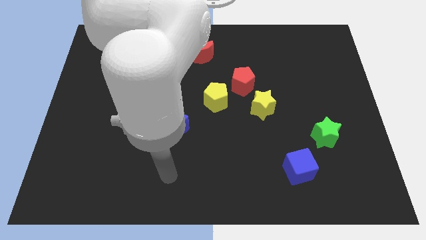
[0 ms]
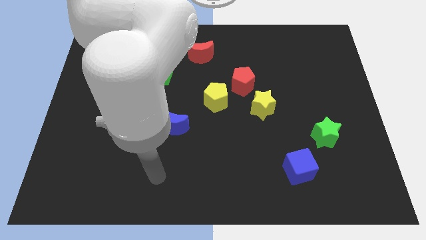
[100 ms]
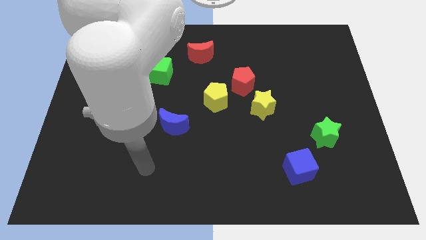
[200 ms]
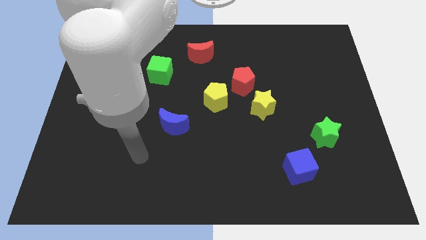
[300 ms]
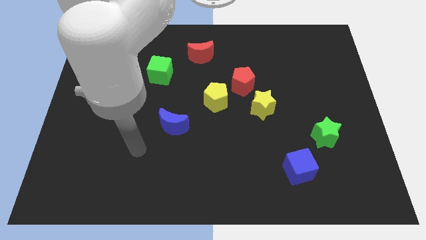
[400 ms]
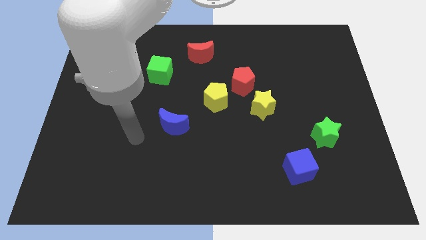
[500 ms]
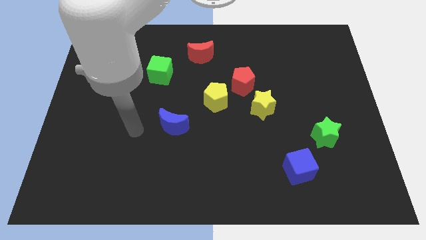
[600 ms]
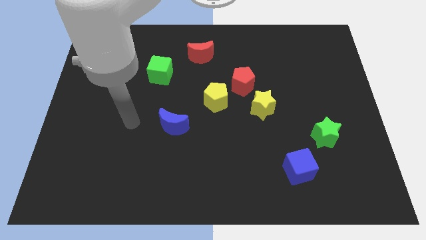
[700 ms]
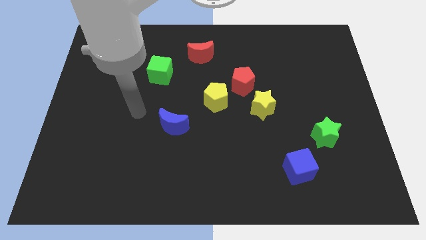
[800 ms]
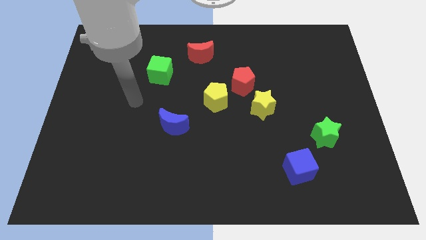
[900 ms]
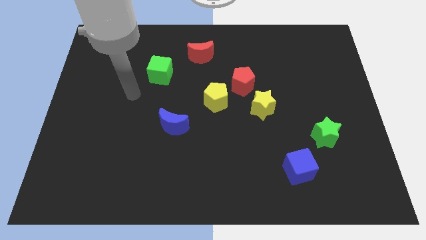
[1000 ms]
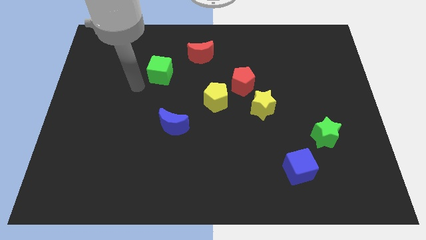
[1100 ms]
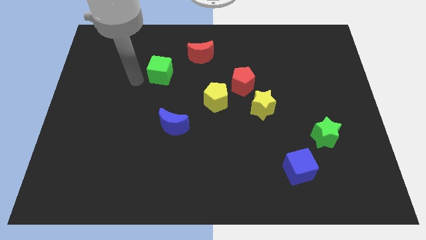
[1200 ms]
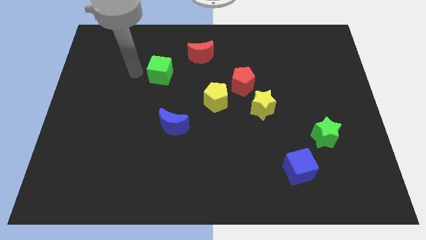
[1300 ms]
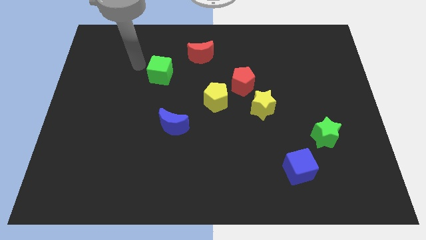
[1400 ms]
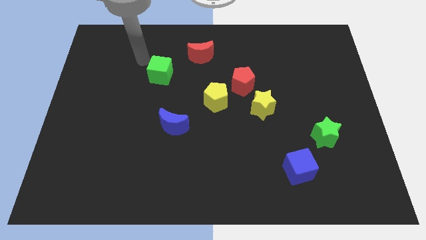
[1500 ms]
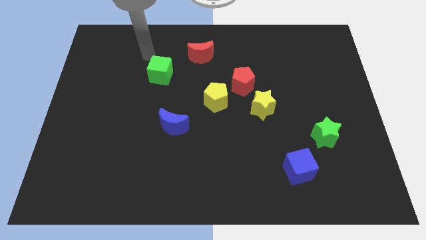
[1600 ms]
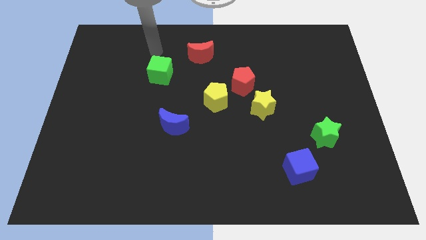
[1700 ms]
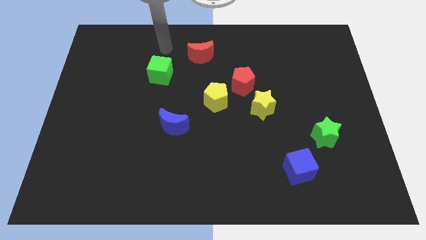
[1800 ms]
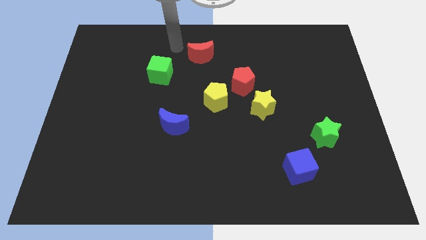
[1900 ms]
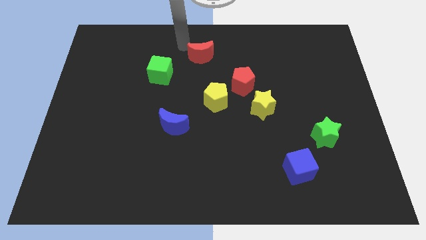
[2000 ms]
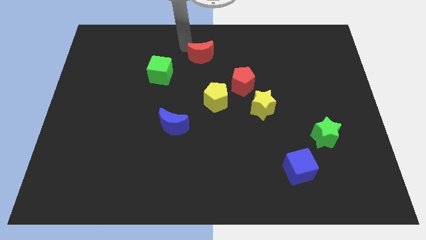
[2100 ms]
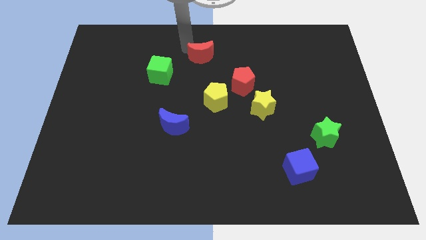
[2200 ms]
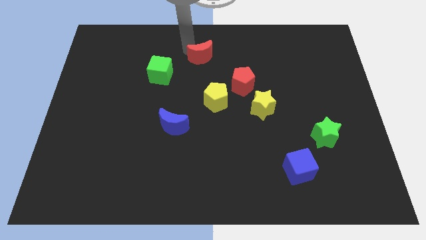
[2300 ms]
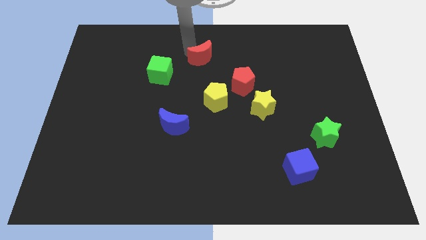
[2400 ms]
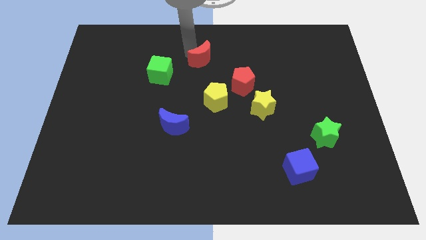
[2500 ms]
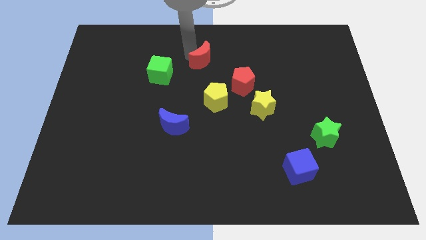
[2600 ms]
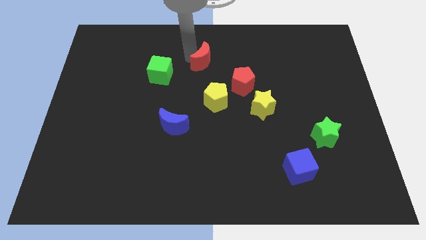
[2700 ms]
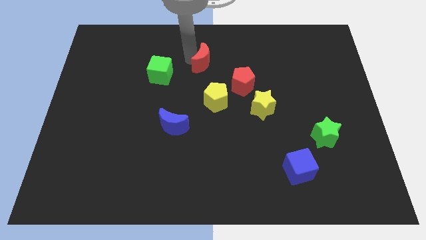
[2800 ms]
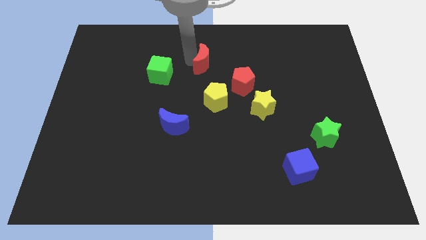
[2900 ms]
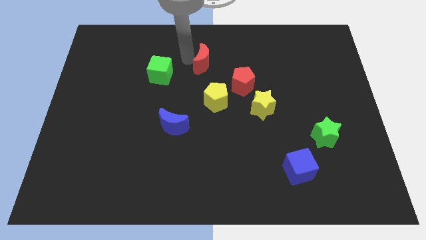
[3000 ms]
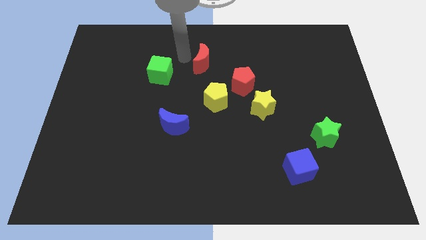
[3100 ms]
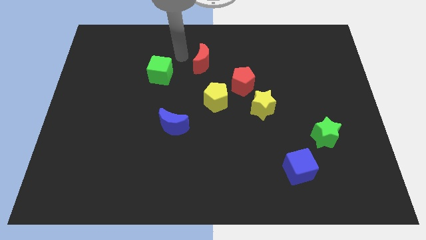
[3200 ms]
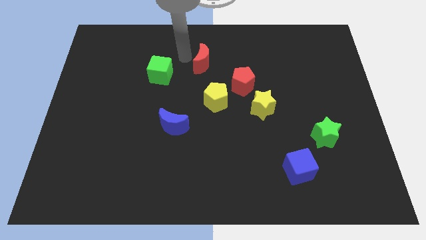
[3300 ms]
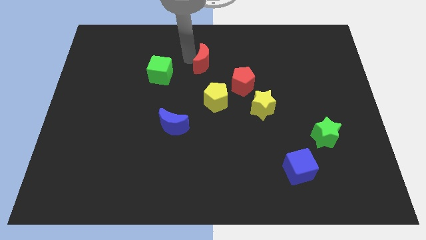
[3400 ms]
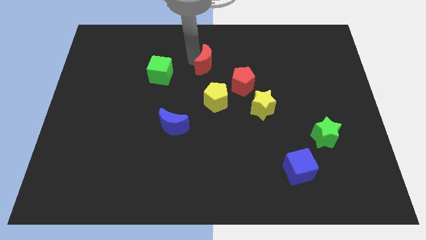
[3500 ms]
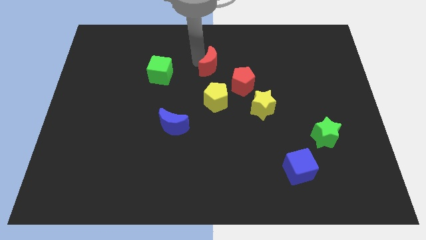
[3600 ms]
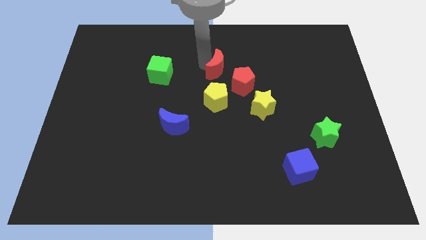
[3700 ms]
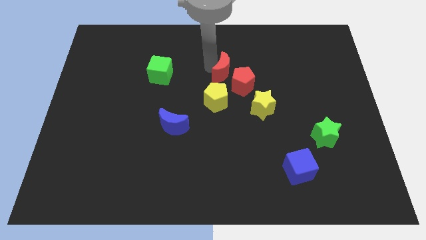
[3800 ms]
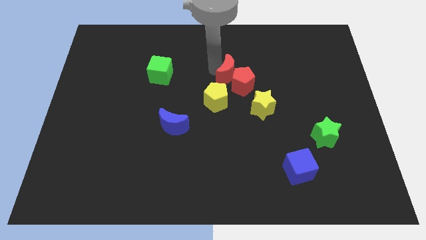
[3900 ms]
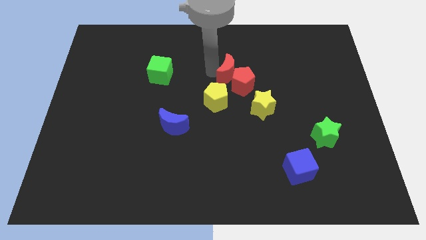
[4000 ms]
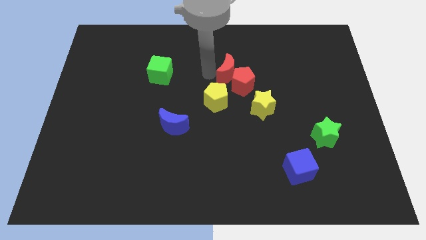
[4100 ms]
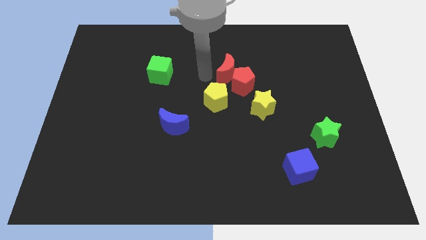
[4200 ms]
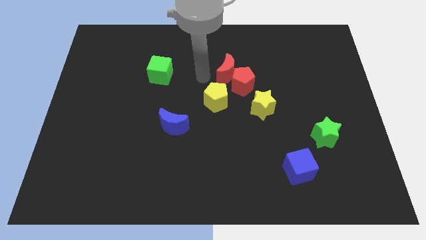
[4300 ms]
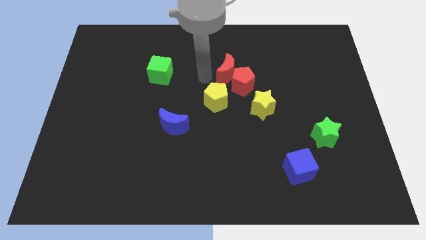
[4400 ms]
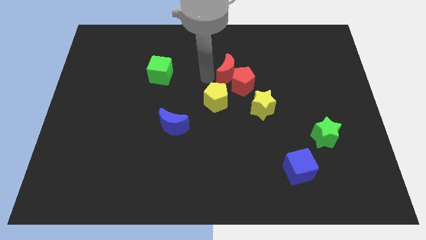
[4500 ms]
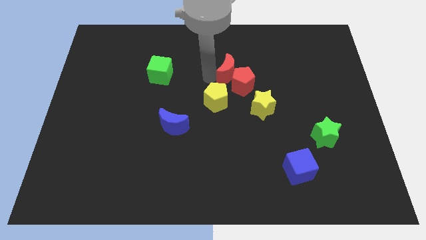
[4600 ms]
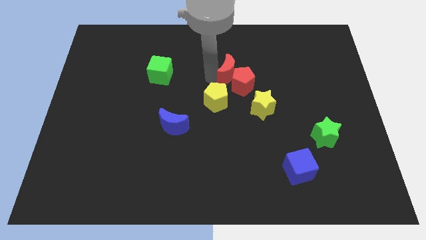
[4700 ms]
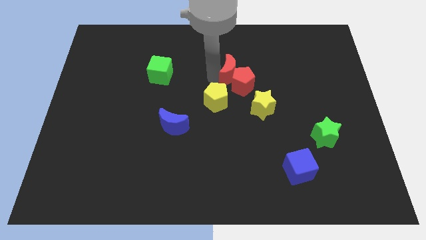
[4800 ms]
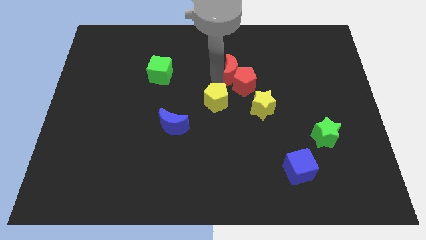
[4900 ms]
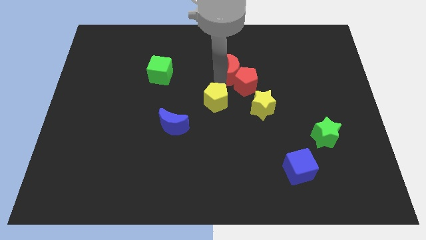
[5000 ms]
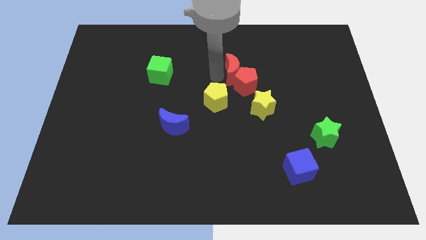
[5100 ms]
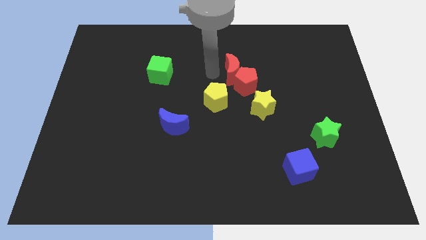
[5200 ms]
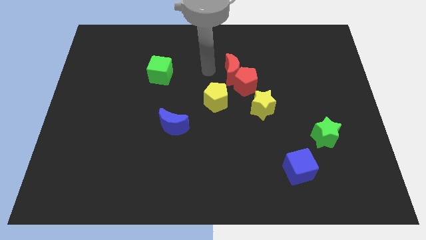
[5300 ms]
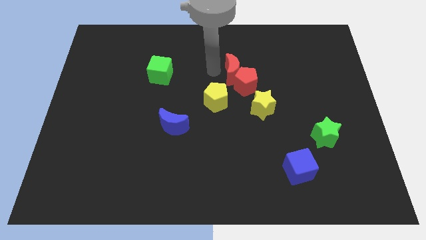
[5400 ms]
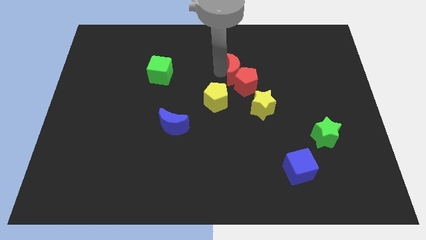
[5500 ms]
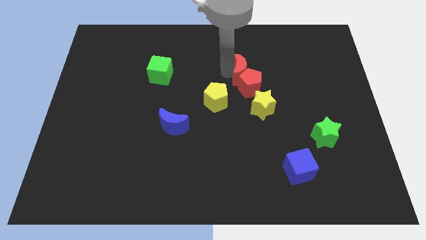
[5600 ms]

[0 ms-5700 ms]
put the red moon to the top side of the yellow star
